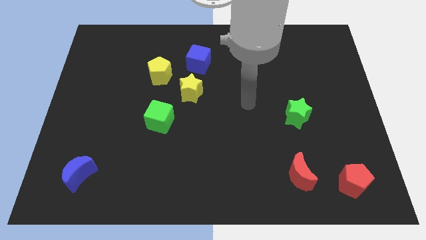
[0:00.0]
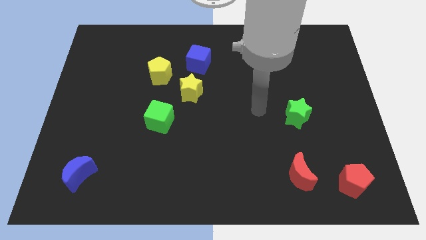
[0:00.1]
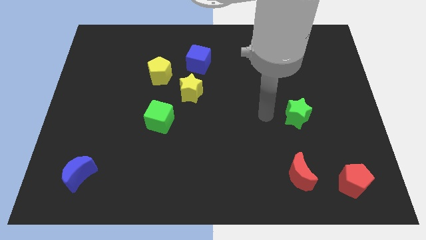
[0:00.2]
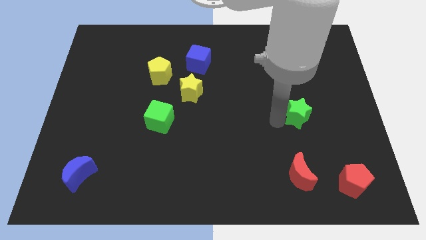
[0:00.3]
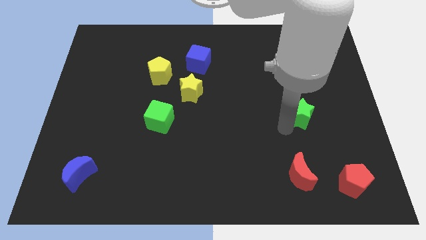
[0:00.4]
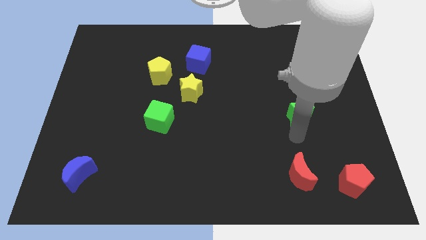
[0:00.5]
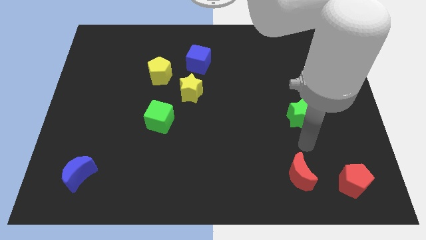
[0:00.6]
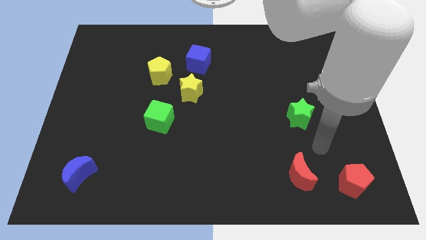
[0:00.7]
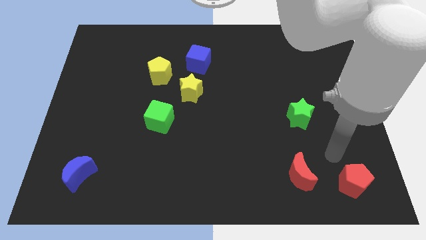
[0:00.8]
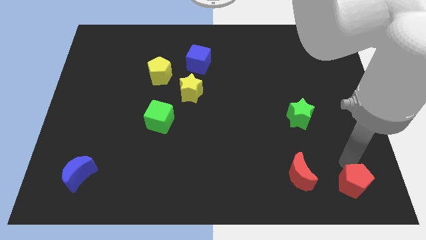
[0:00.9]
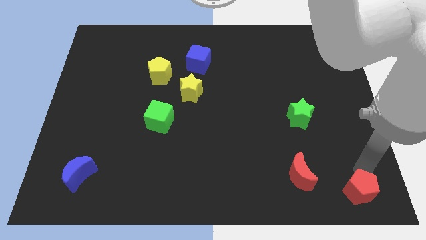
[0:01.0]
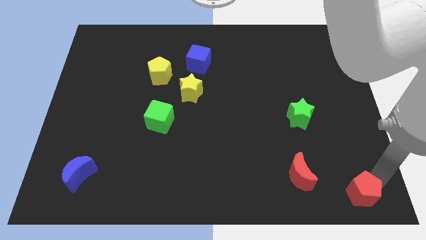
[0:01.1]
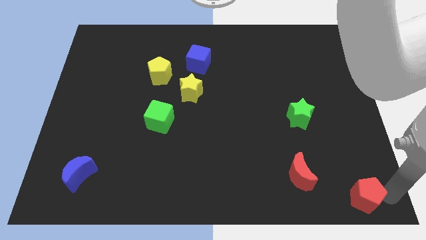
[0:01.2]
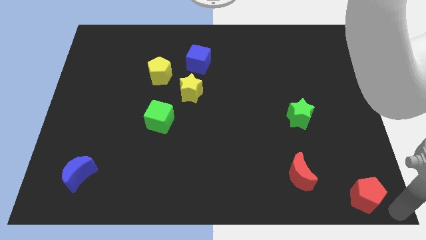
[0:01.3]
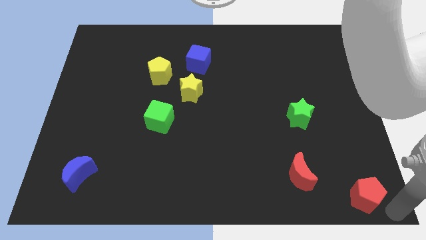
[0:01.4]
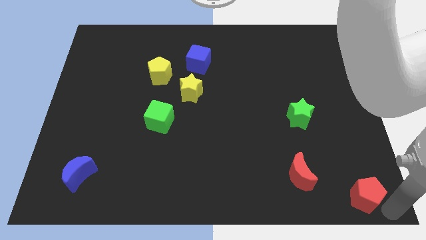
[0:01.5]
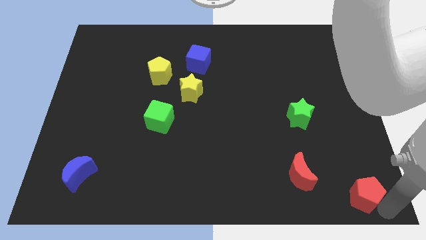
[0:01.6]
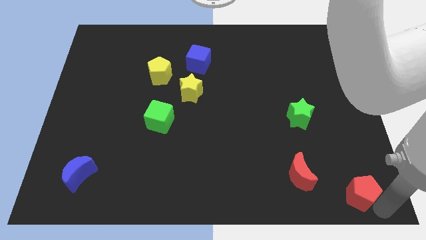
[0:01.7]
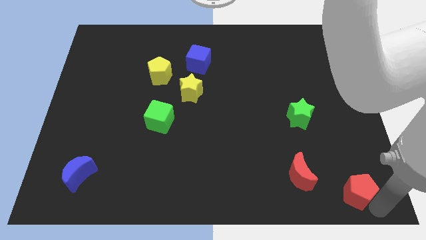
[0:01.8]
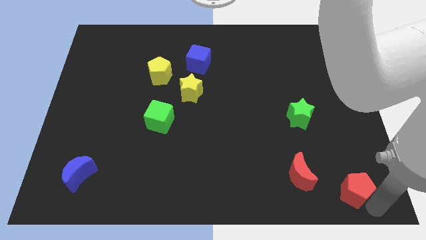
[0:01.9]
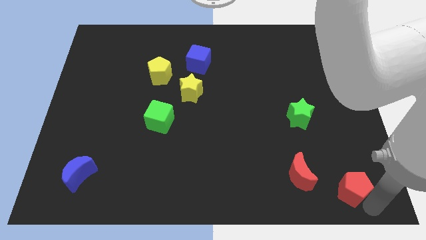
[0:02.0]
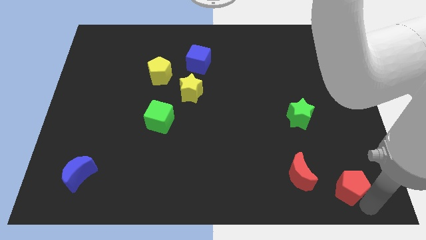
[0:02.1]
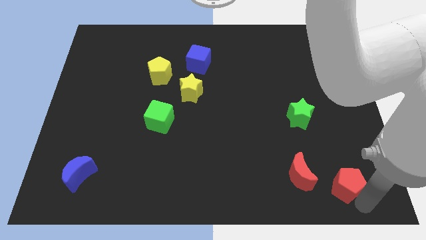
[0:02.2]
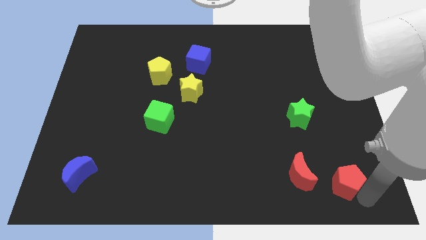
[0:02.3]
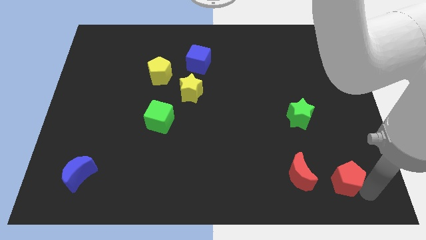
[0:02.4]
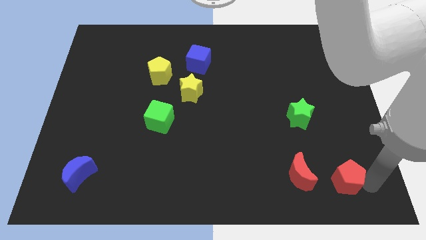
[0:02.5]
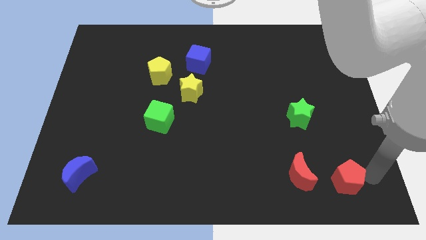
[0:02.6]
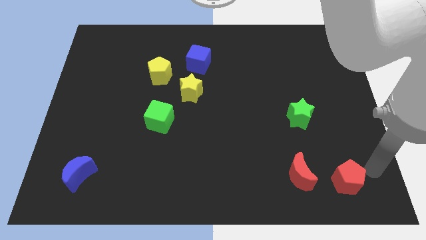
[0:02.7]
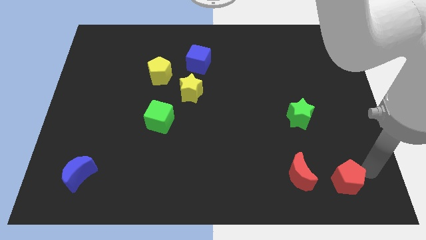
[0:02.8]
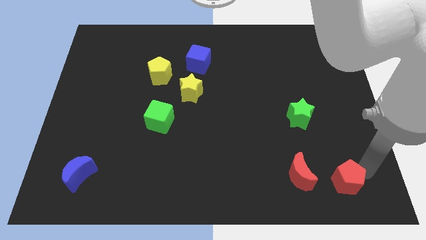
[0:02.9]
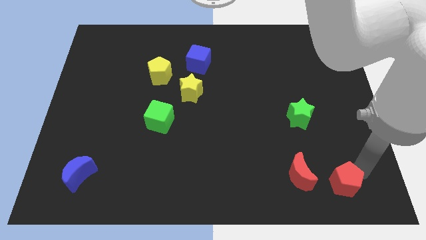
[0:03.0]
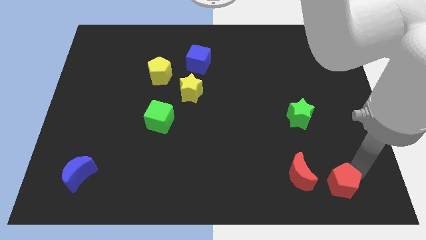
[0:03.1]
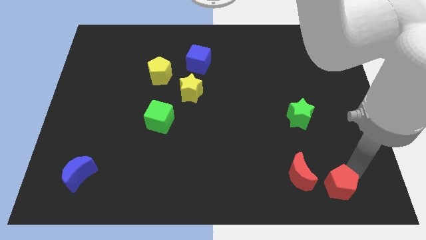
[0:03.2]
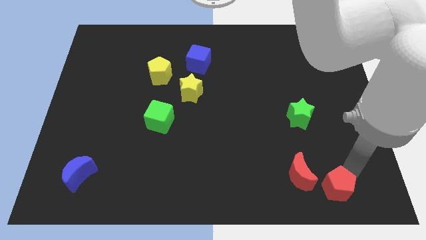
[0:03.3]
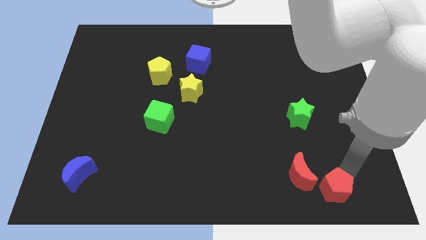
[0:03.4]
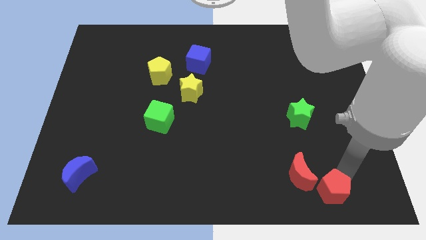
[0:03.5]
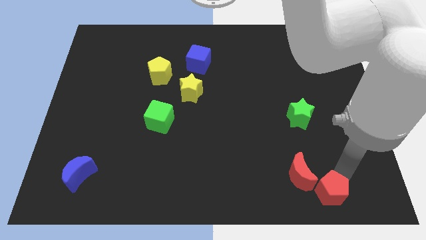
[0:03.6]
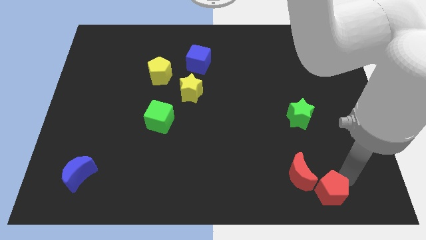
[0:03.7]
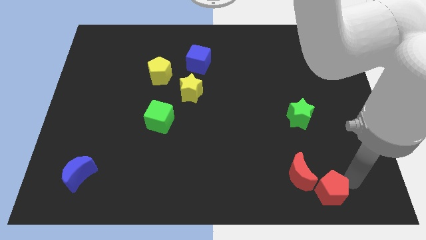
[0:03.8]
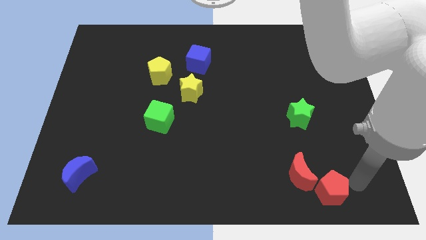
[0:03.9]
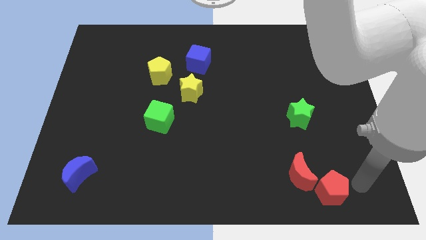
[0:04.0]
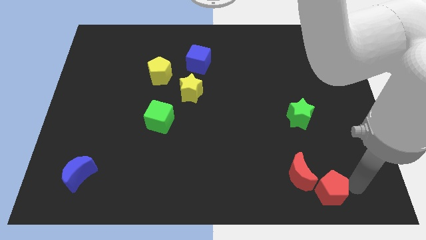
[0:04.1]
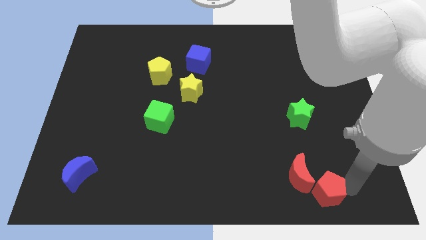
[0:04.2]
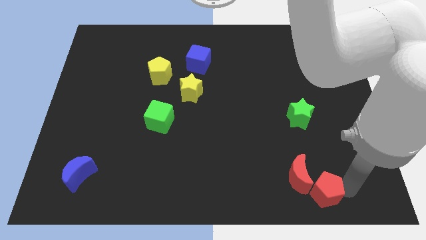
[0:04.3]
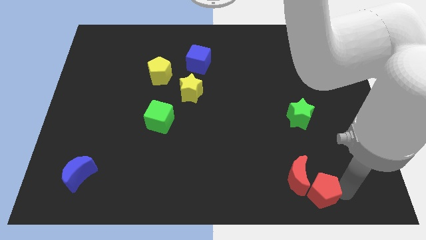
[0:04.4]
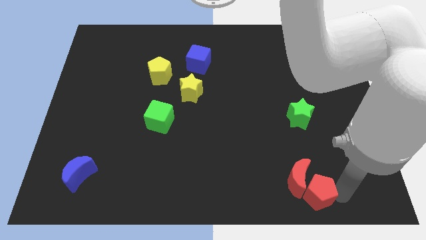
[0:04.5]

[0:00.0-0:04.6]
move the red pentagon a little bit left

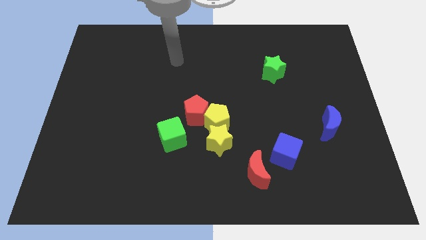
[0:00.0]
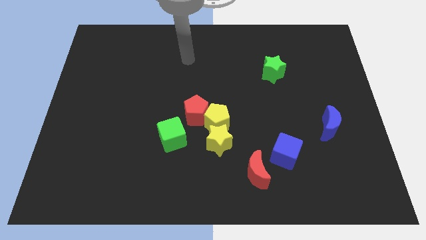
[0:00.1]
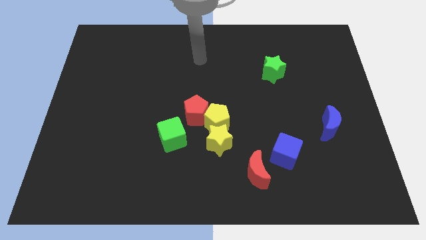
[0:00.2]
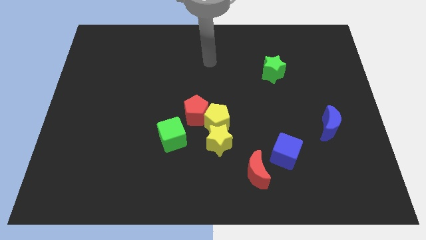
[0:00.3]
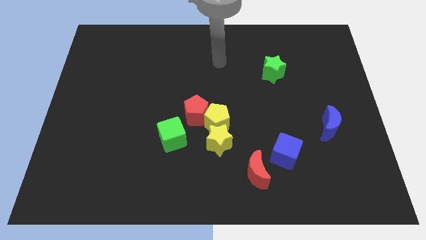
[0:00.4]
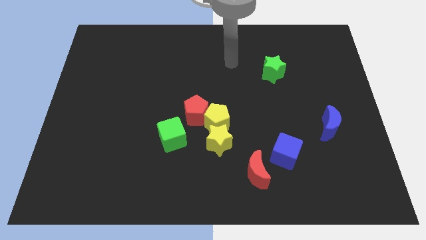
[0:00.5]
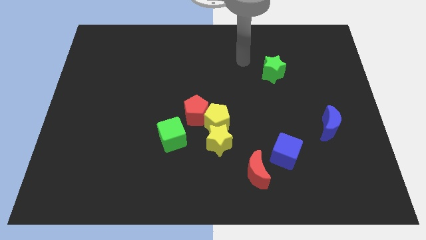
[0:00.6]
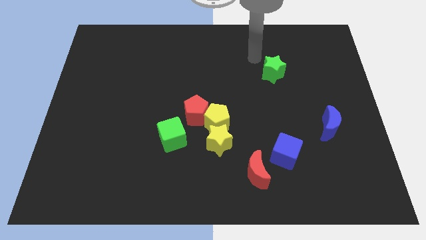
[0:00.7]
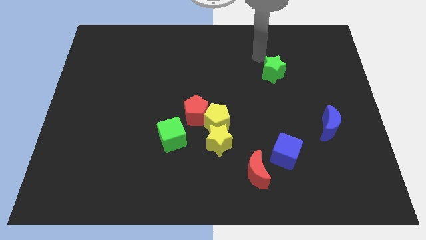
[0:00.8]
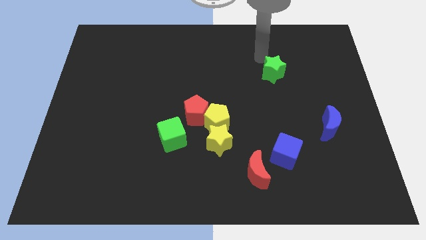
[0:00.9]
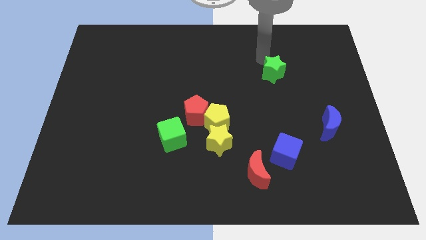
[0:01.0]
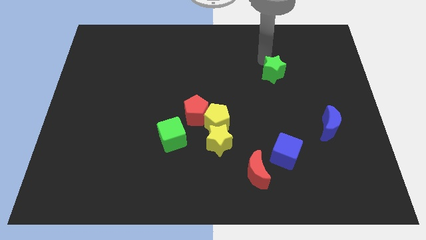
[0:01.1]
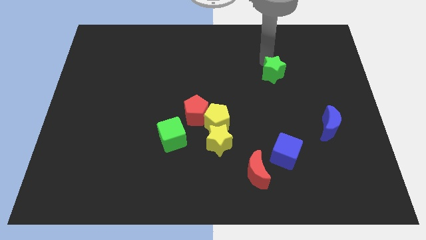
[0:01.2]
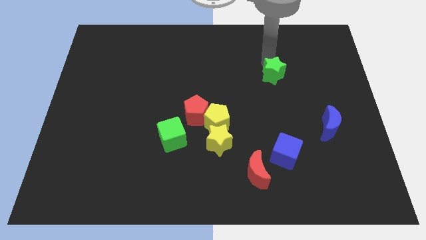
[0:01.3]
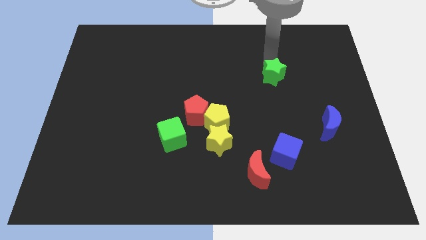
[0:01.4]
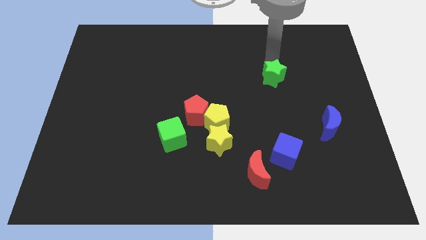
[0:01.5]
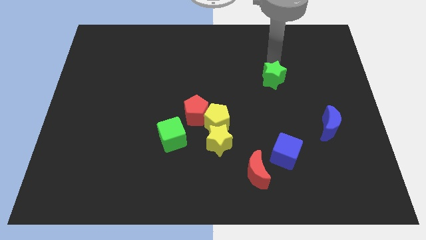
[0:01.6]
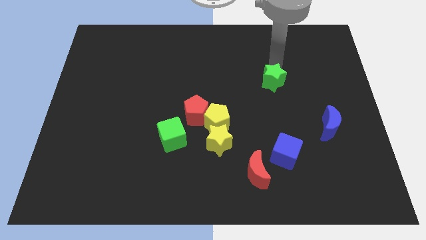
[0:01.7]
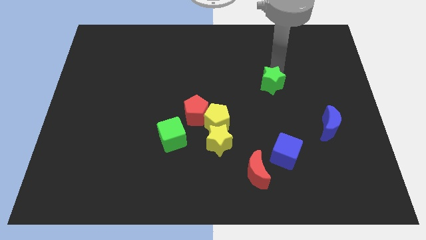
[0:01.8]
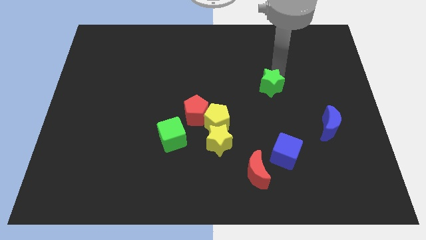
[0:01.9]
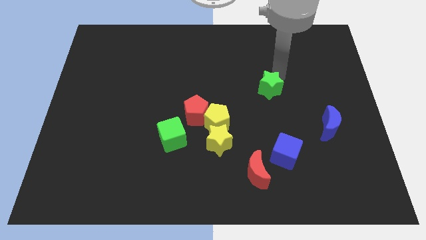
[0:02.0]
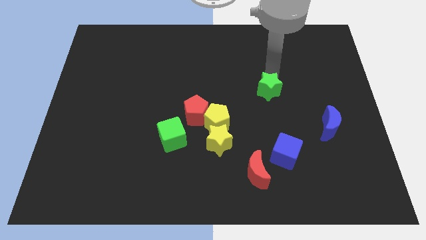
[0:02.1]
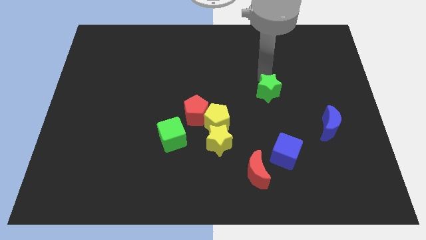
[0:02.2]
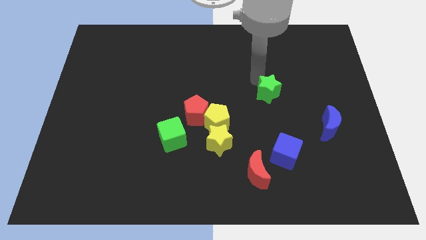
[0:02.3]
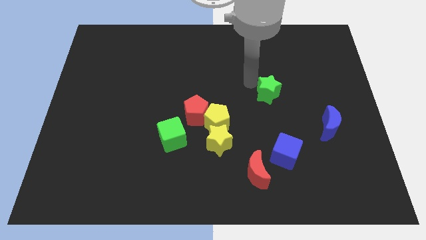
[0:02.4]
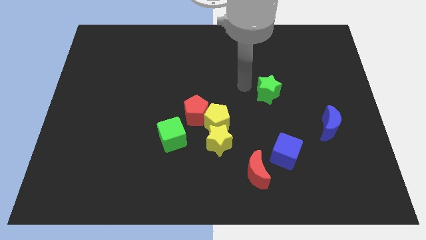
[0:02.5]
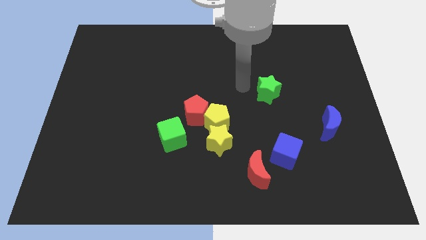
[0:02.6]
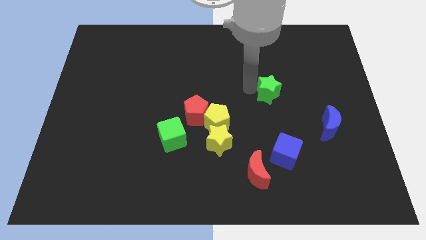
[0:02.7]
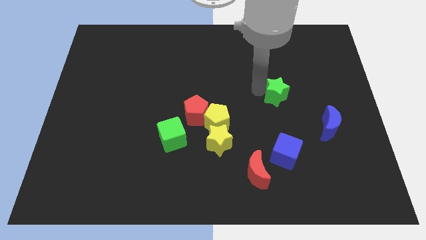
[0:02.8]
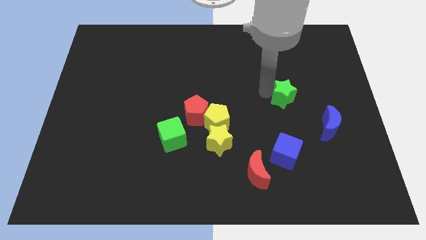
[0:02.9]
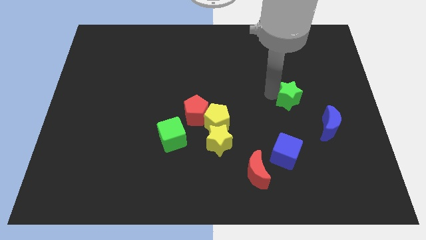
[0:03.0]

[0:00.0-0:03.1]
push the green star a little downwards and right

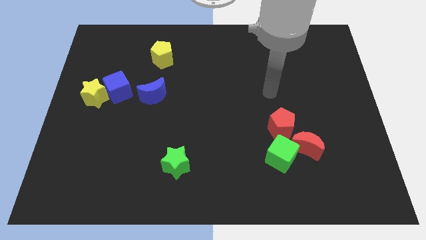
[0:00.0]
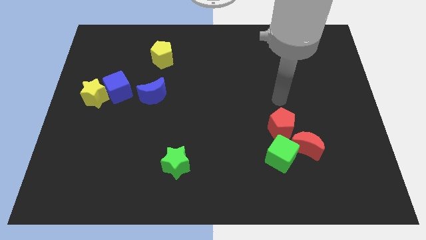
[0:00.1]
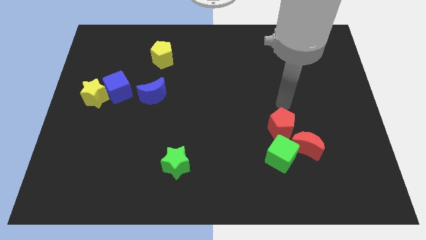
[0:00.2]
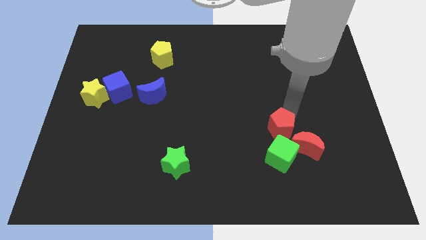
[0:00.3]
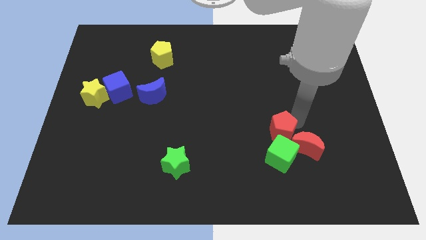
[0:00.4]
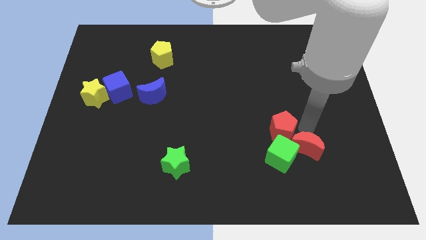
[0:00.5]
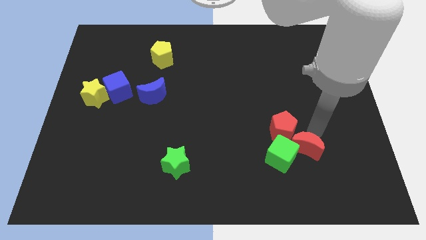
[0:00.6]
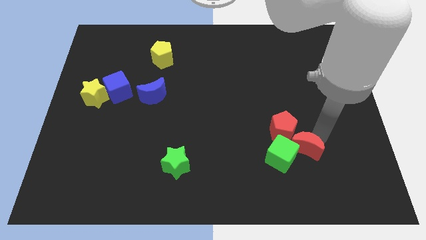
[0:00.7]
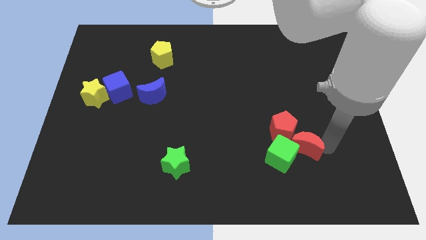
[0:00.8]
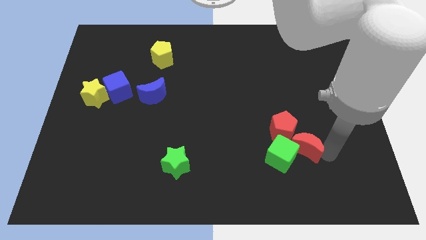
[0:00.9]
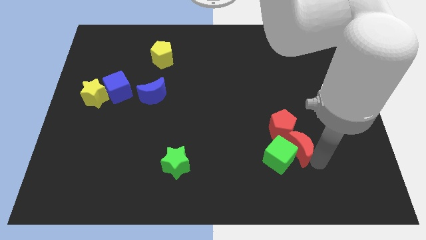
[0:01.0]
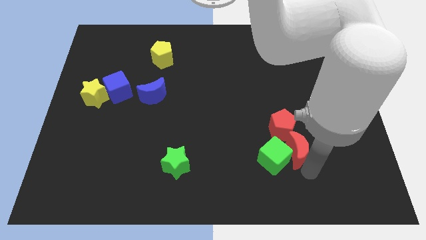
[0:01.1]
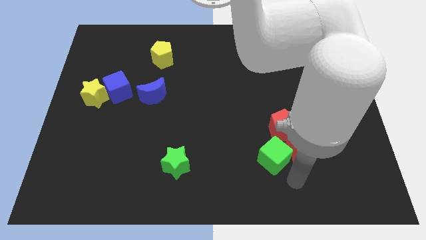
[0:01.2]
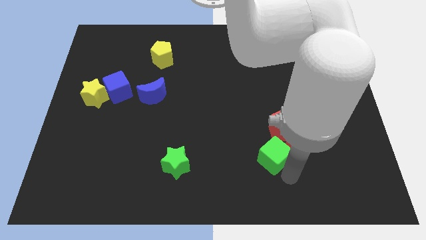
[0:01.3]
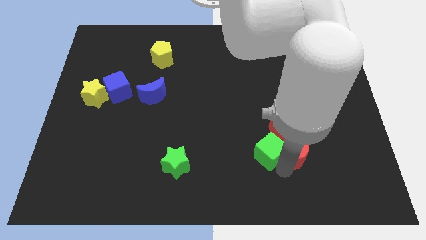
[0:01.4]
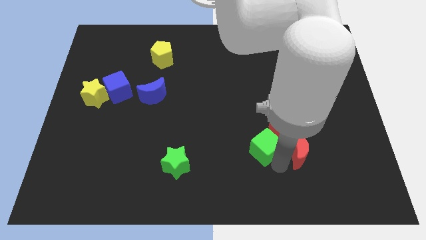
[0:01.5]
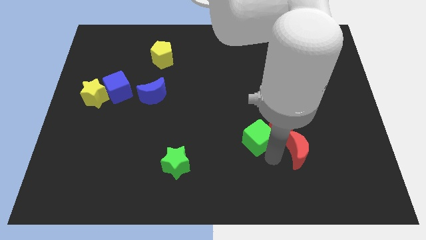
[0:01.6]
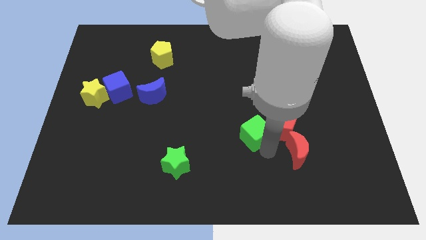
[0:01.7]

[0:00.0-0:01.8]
push the green cube diagonally up and left somewhat
